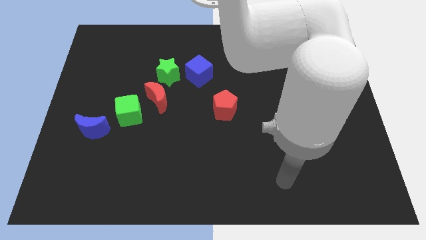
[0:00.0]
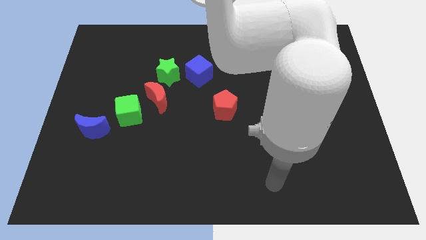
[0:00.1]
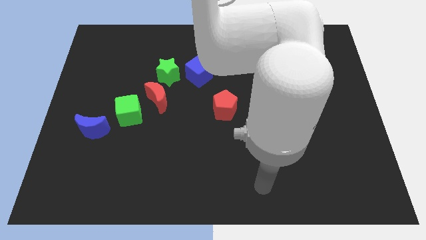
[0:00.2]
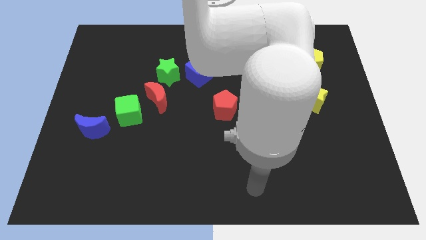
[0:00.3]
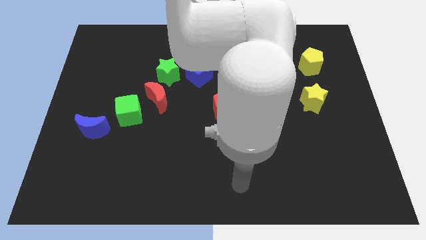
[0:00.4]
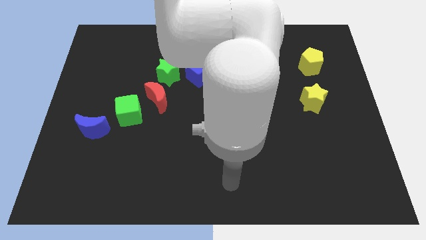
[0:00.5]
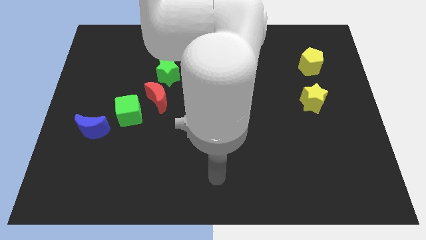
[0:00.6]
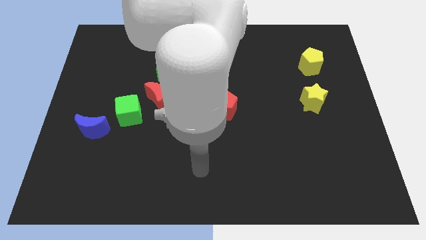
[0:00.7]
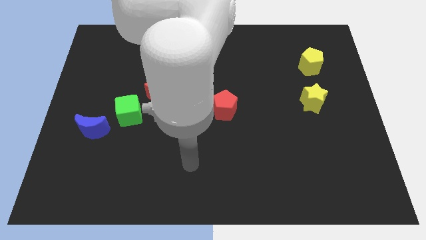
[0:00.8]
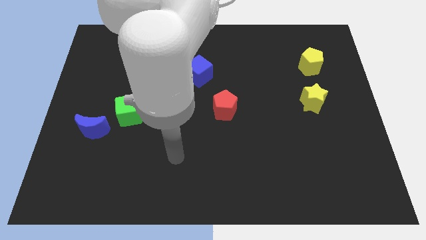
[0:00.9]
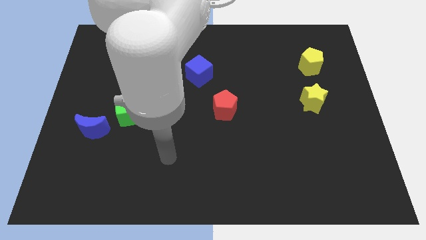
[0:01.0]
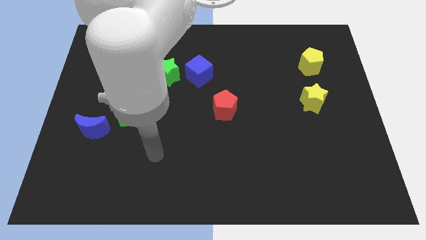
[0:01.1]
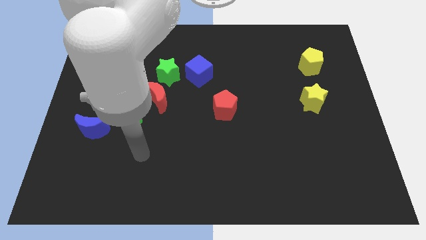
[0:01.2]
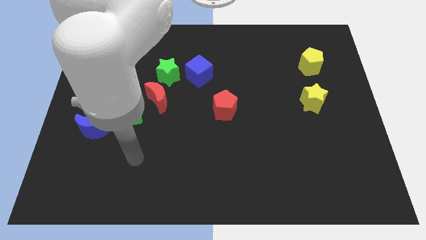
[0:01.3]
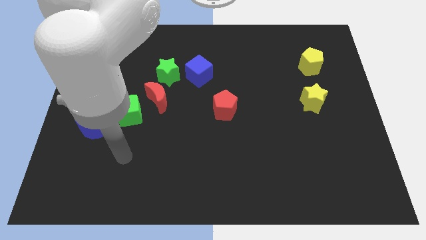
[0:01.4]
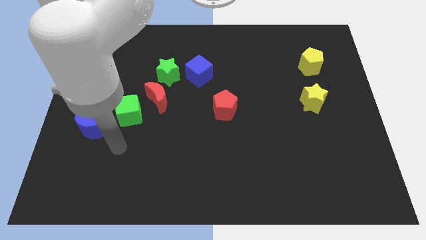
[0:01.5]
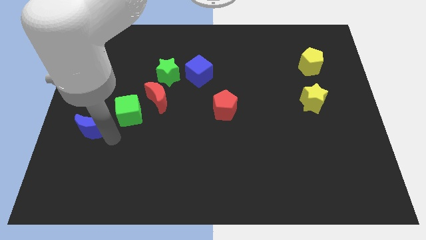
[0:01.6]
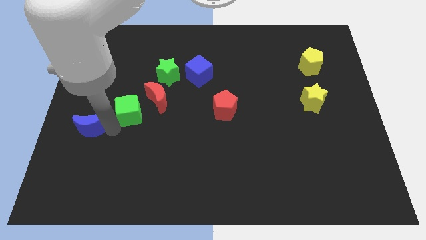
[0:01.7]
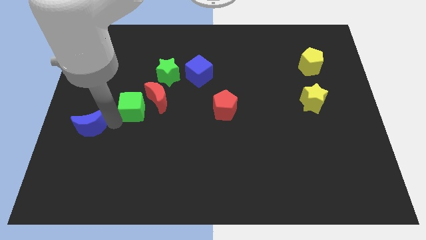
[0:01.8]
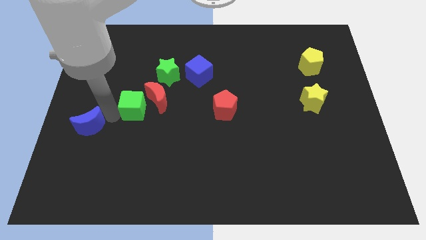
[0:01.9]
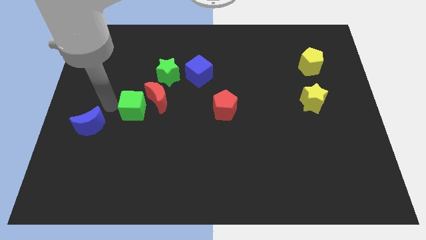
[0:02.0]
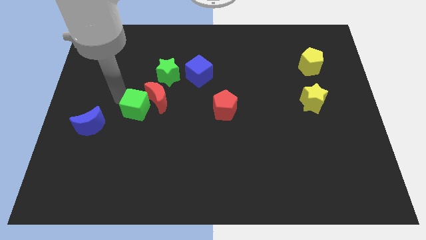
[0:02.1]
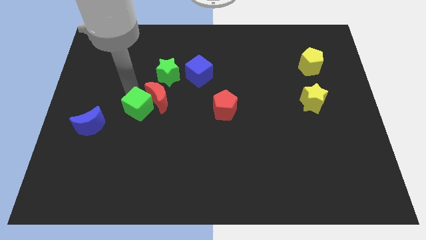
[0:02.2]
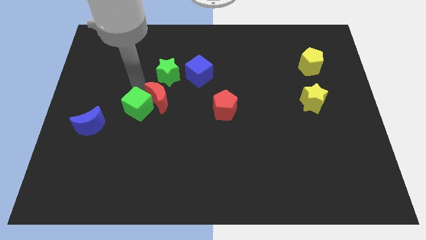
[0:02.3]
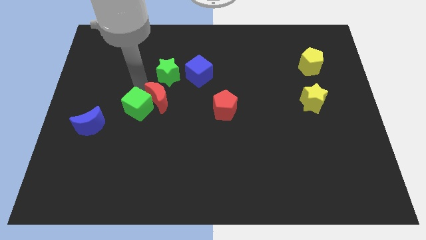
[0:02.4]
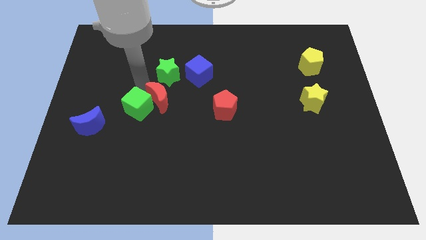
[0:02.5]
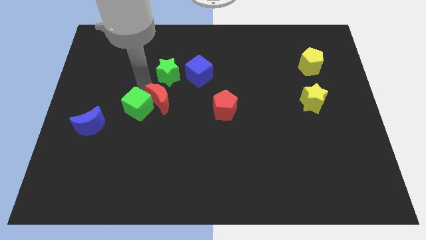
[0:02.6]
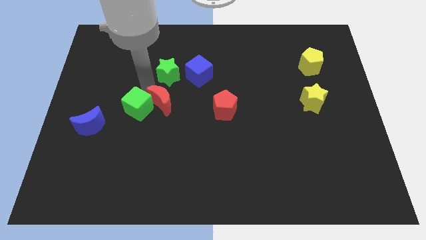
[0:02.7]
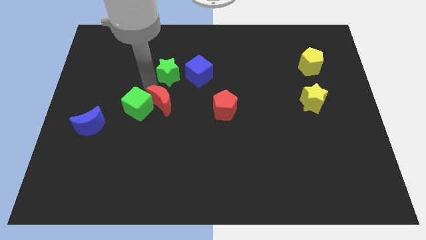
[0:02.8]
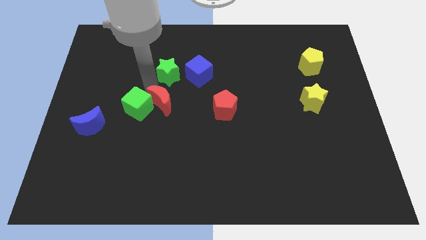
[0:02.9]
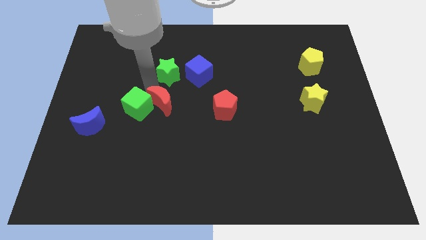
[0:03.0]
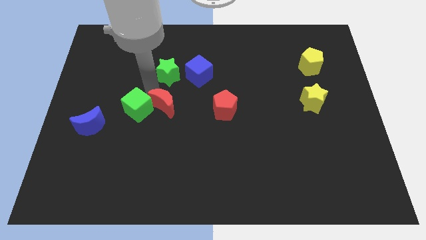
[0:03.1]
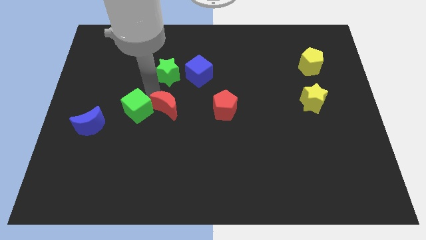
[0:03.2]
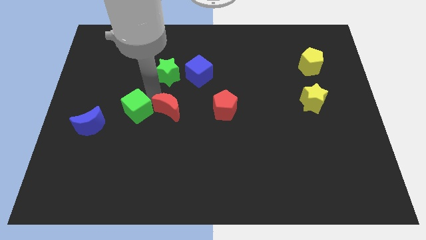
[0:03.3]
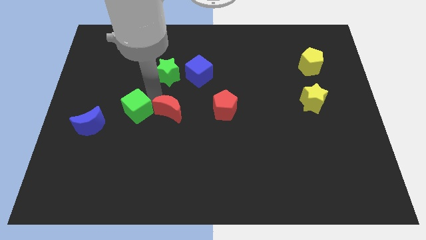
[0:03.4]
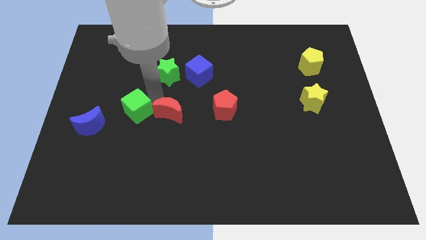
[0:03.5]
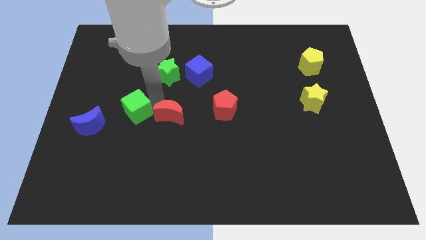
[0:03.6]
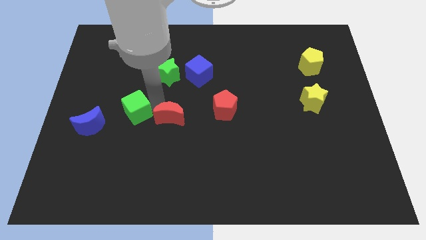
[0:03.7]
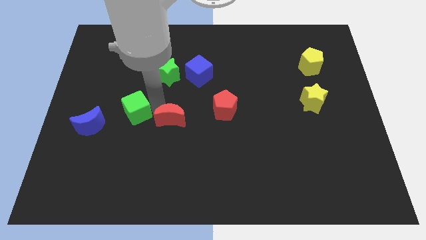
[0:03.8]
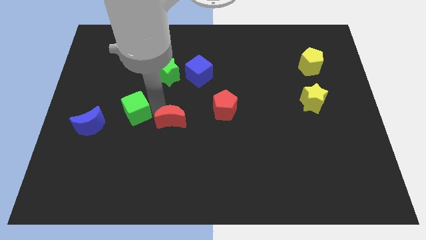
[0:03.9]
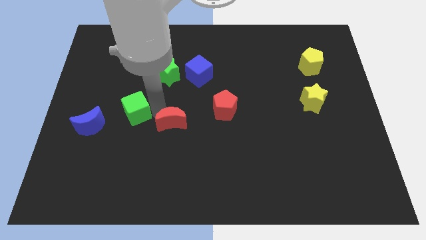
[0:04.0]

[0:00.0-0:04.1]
move the red moon away from the green cube and green star

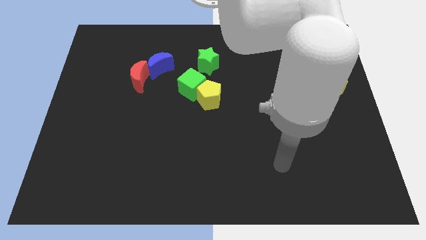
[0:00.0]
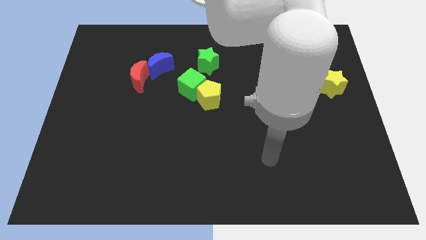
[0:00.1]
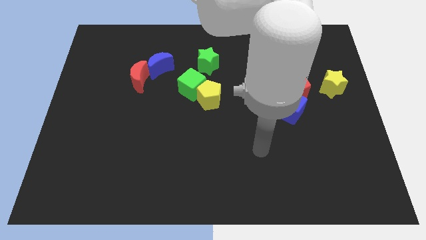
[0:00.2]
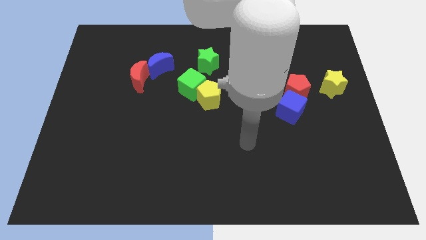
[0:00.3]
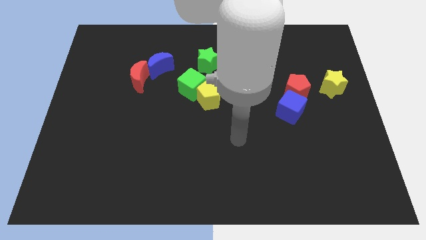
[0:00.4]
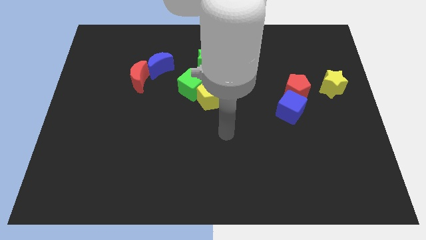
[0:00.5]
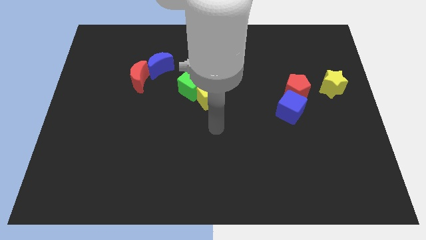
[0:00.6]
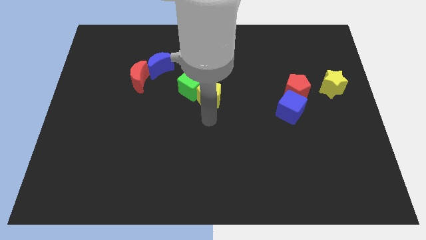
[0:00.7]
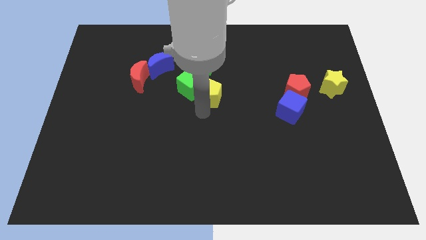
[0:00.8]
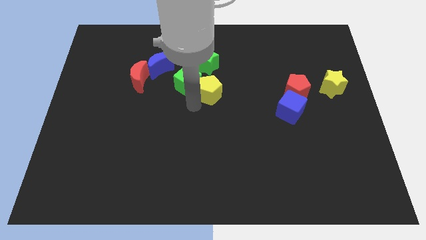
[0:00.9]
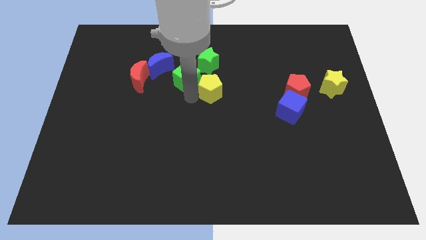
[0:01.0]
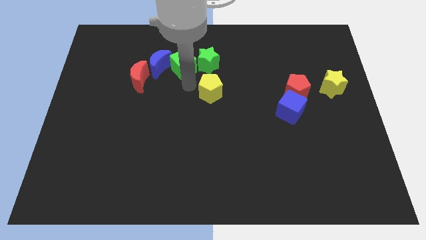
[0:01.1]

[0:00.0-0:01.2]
pull the yellow pentagon apart from the green cube

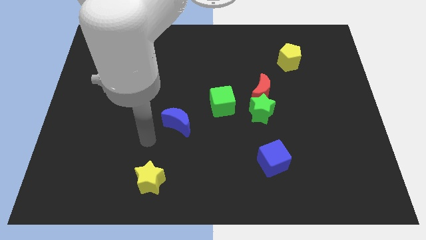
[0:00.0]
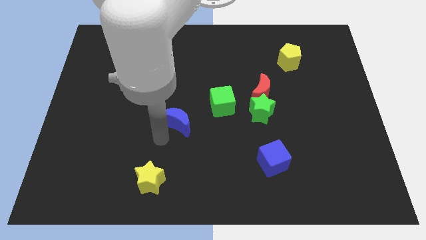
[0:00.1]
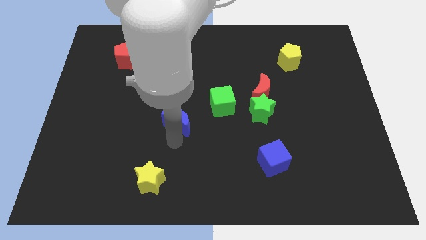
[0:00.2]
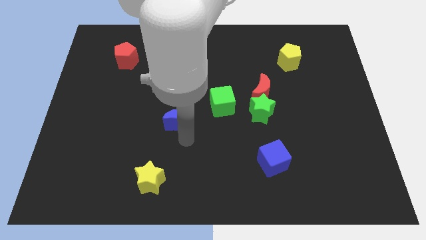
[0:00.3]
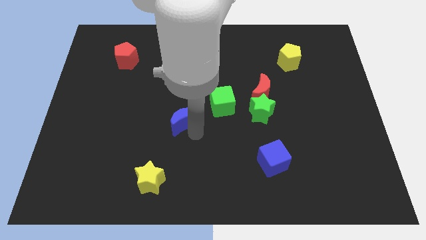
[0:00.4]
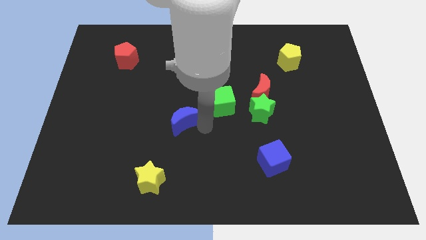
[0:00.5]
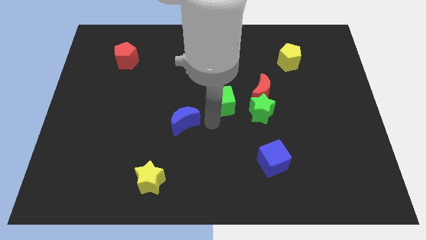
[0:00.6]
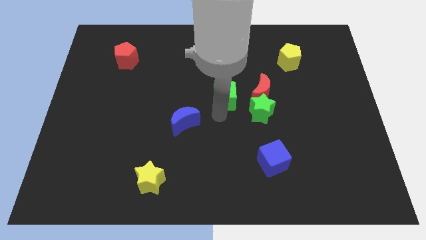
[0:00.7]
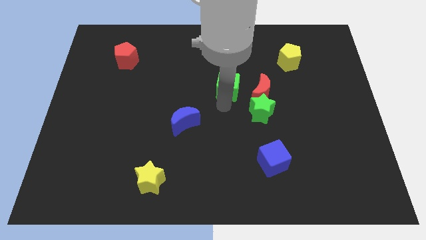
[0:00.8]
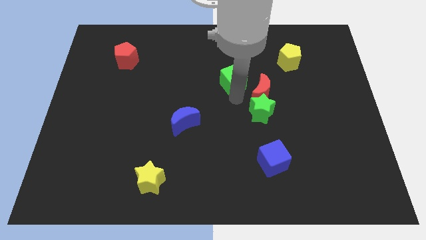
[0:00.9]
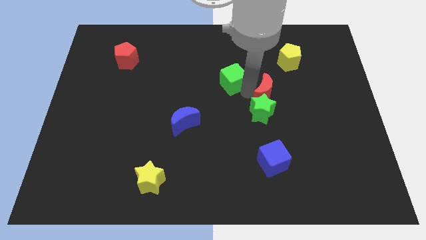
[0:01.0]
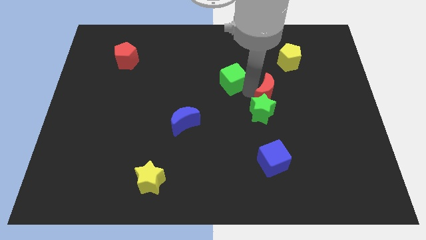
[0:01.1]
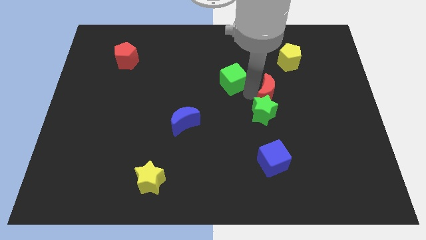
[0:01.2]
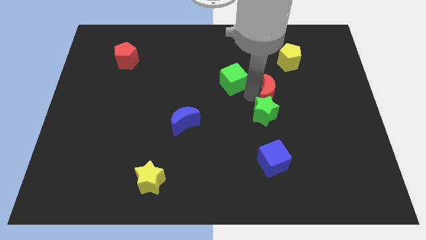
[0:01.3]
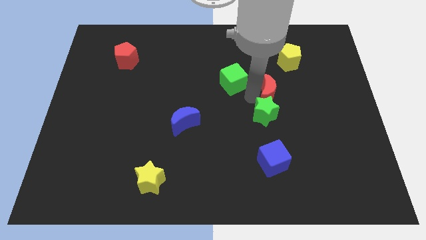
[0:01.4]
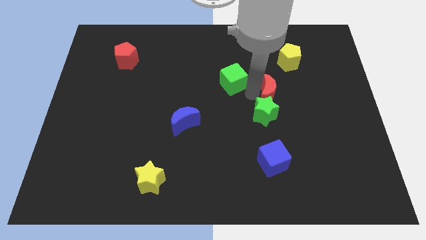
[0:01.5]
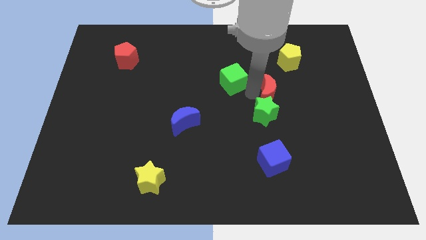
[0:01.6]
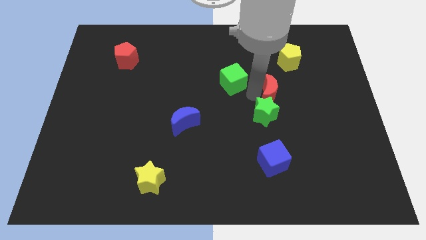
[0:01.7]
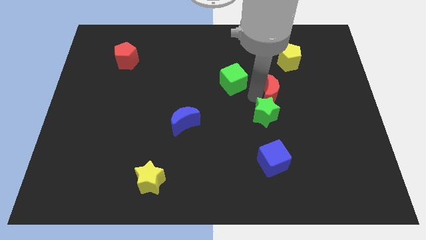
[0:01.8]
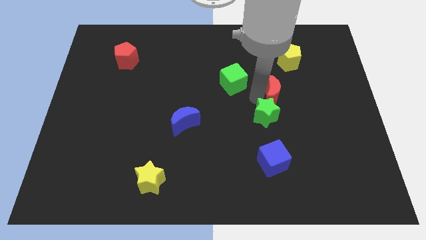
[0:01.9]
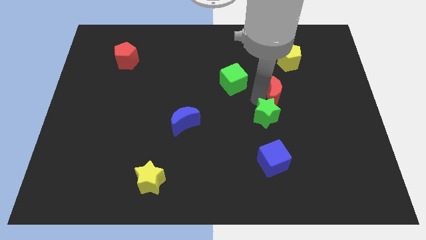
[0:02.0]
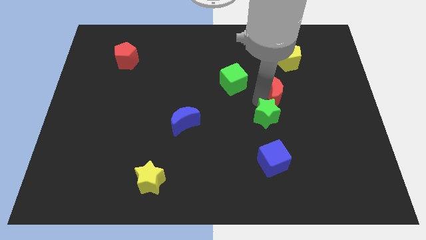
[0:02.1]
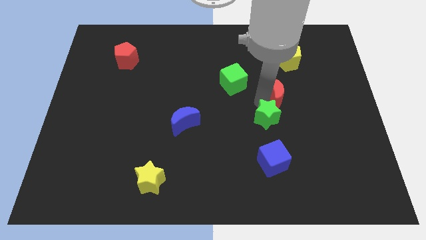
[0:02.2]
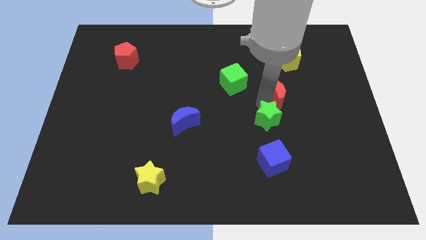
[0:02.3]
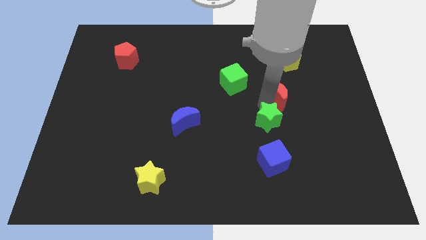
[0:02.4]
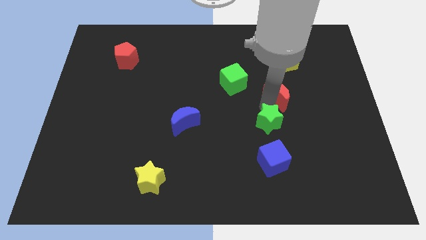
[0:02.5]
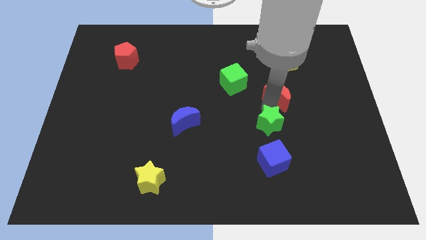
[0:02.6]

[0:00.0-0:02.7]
separate the green star from the red moon and green cube

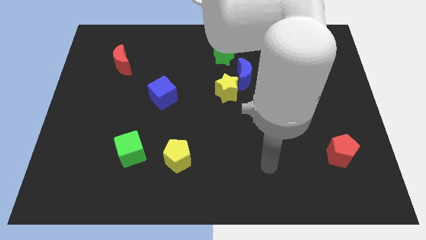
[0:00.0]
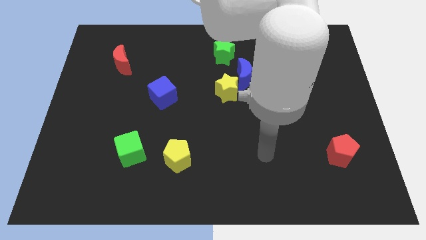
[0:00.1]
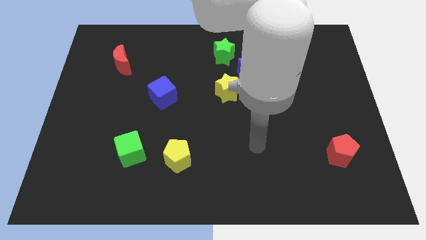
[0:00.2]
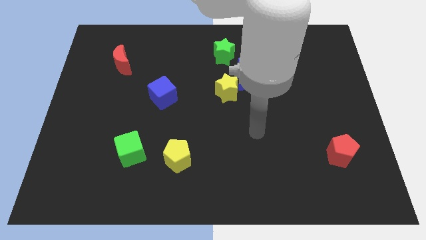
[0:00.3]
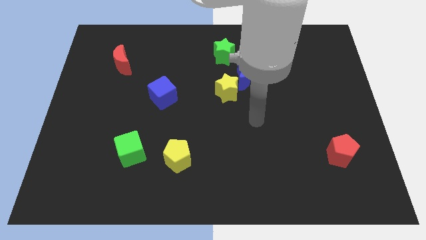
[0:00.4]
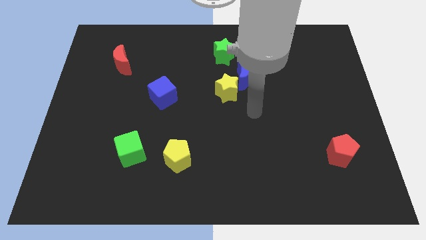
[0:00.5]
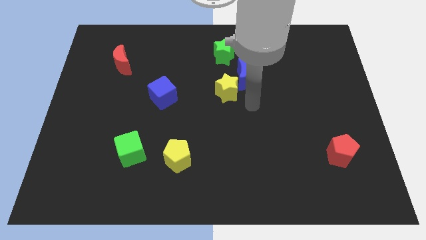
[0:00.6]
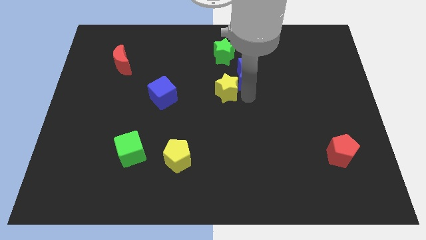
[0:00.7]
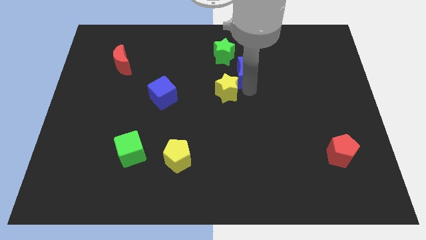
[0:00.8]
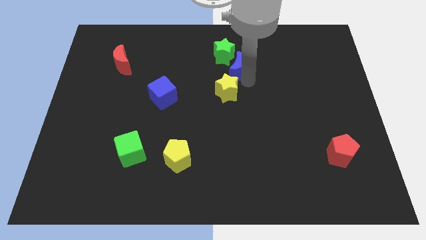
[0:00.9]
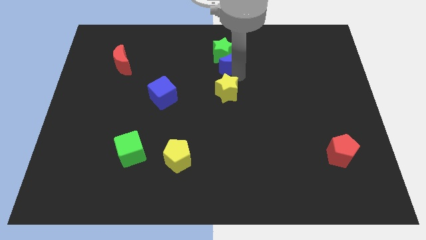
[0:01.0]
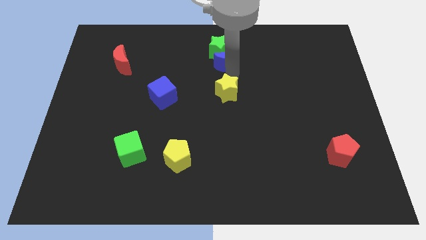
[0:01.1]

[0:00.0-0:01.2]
pull the yellow star apart from the blue moon

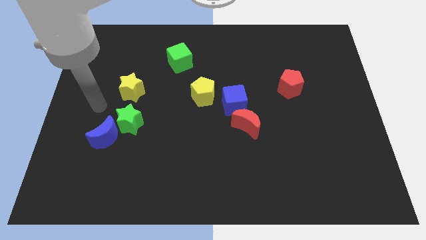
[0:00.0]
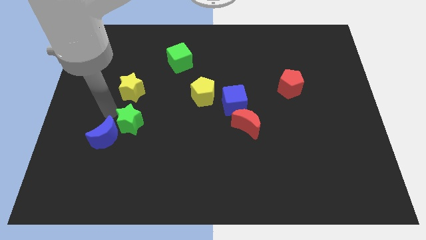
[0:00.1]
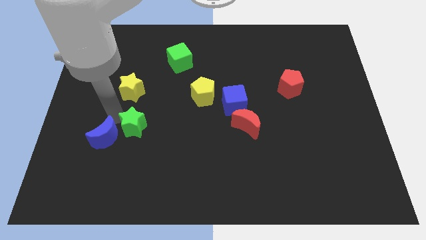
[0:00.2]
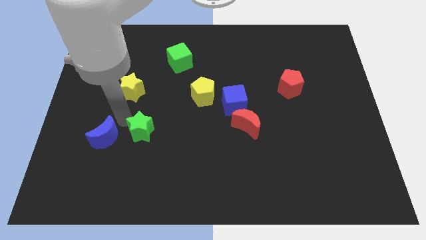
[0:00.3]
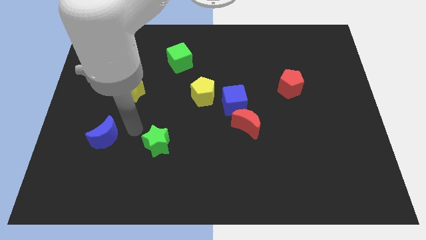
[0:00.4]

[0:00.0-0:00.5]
move the blue moon away from the green star
